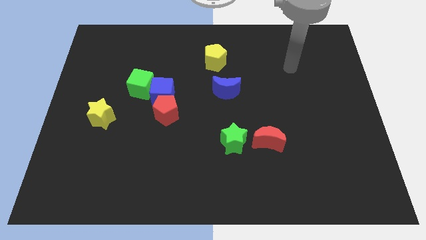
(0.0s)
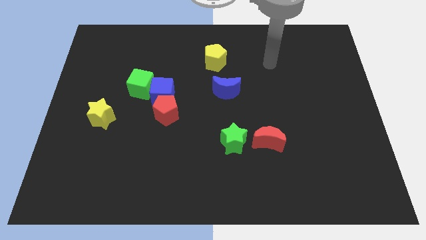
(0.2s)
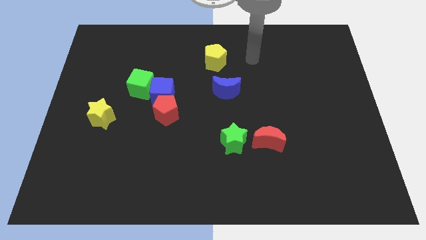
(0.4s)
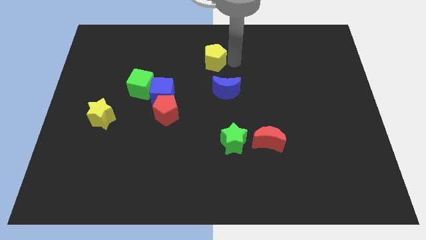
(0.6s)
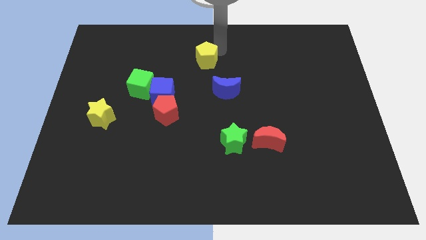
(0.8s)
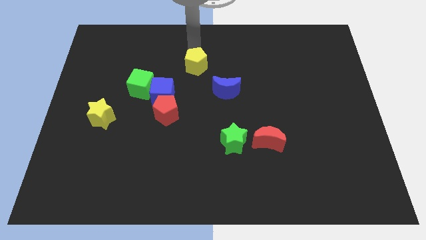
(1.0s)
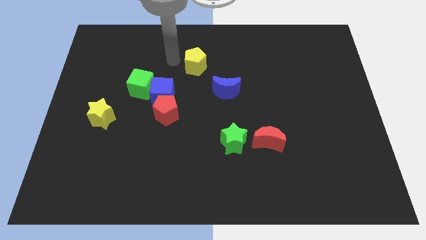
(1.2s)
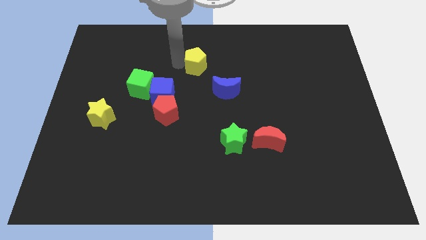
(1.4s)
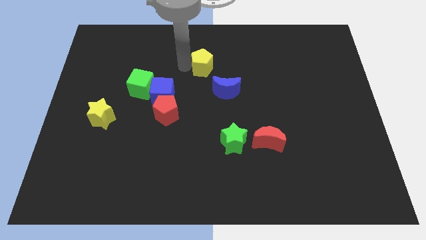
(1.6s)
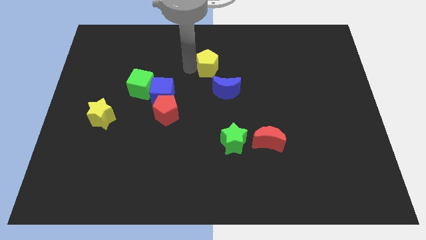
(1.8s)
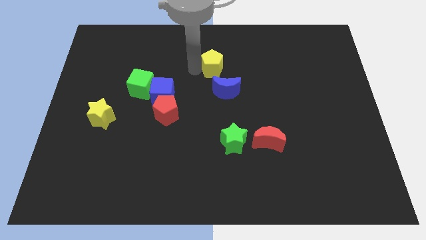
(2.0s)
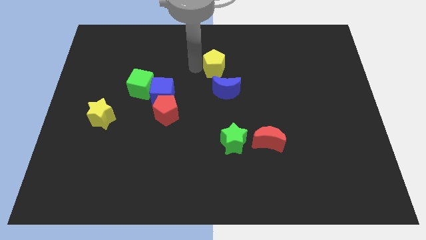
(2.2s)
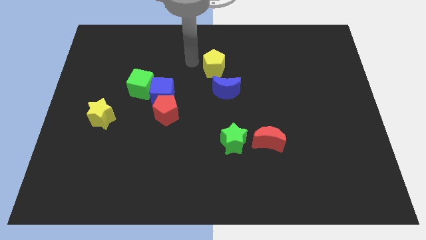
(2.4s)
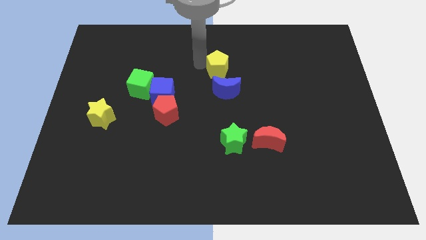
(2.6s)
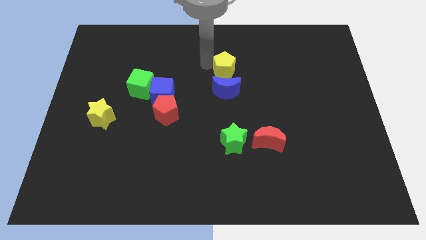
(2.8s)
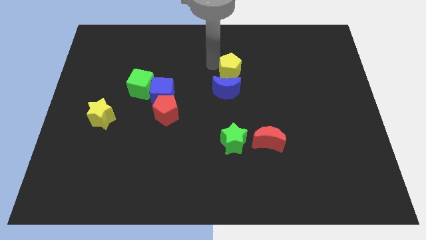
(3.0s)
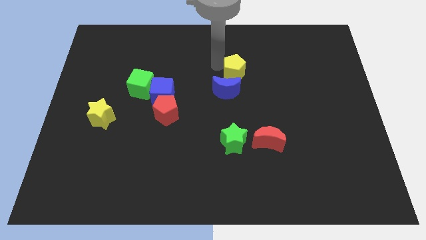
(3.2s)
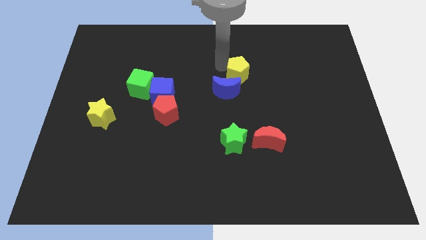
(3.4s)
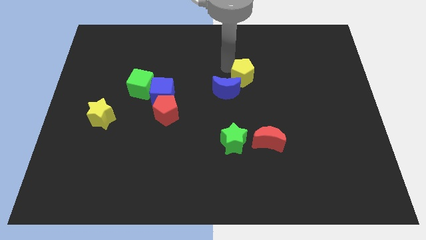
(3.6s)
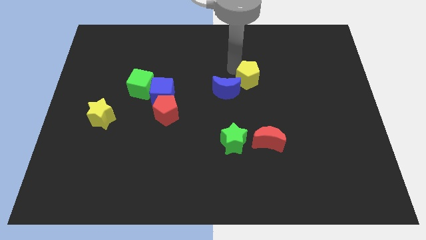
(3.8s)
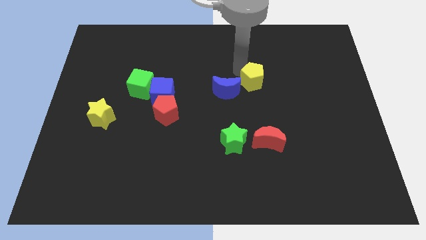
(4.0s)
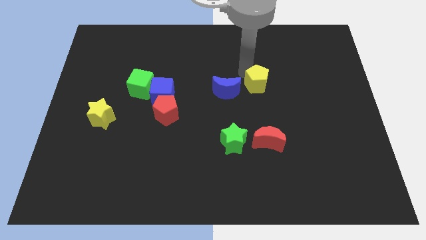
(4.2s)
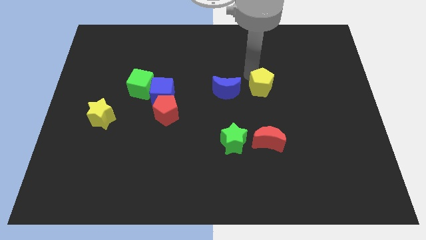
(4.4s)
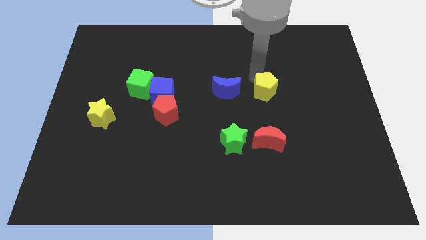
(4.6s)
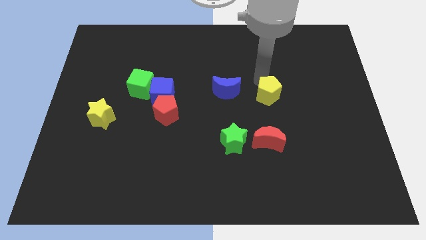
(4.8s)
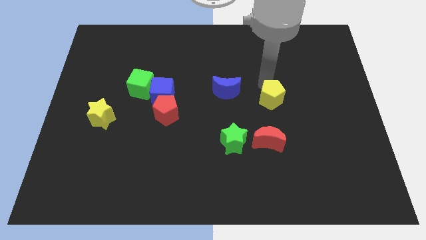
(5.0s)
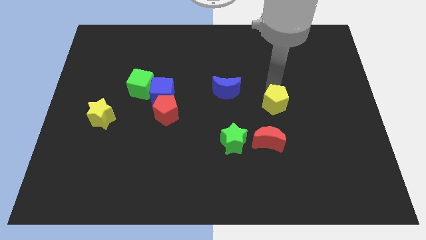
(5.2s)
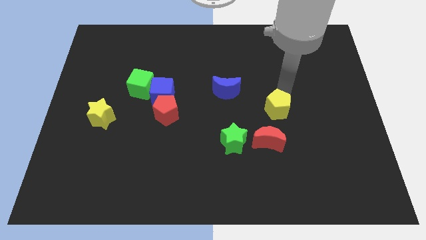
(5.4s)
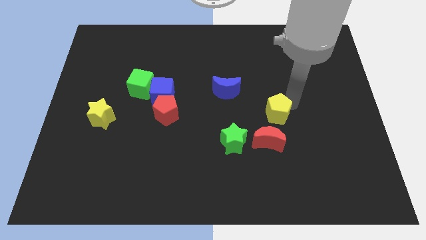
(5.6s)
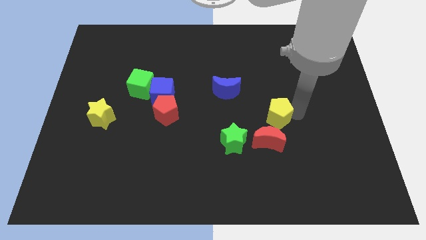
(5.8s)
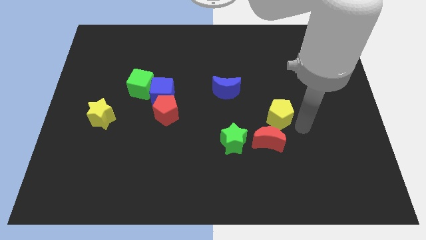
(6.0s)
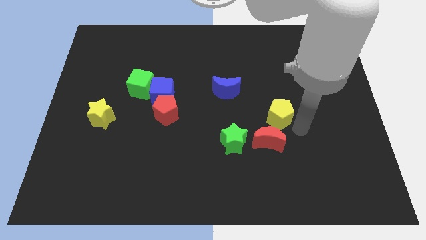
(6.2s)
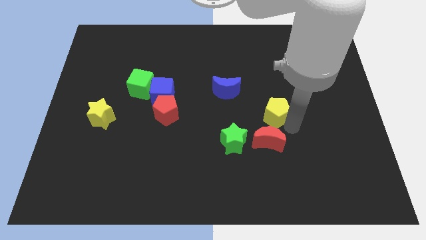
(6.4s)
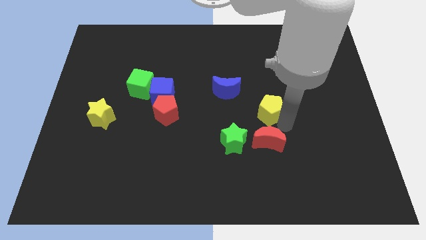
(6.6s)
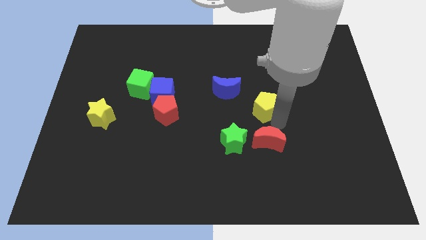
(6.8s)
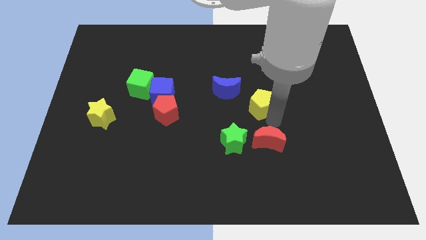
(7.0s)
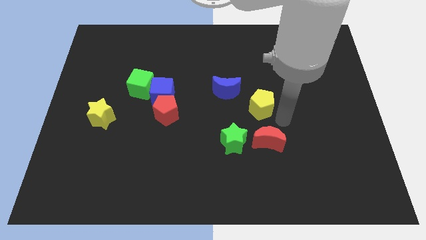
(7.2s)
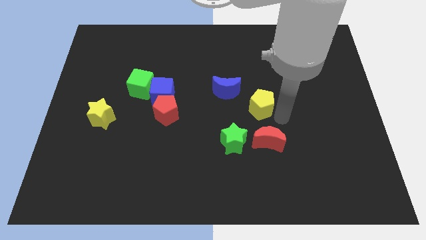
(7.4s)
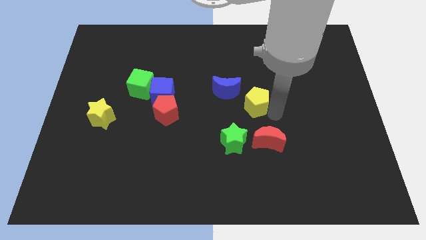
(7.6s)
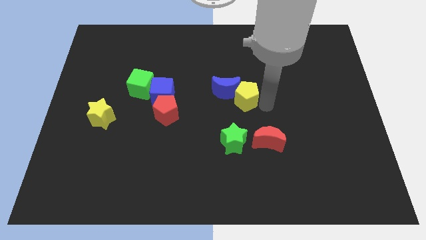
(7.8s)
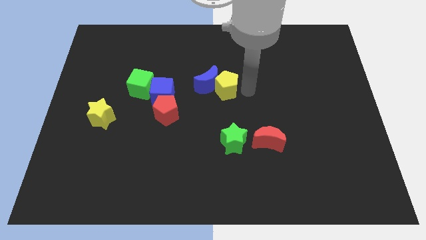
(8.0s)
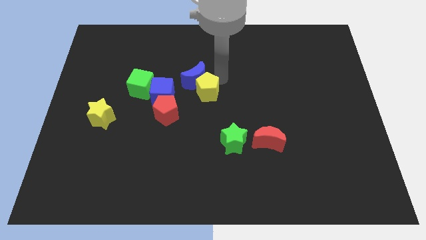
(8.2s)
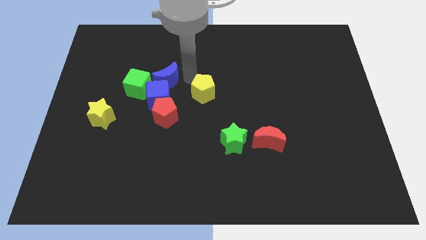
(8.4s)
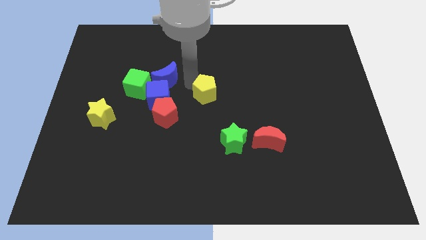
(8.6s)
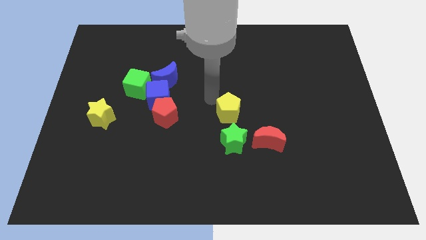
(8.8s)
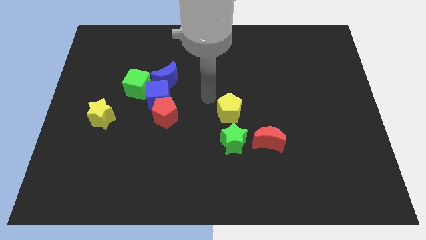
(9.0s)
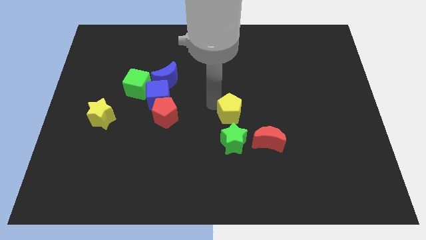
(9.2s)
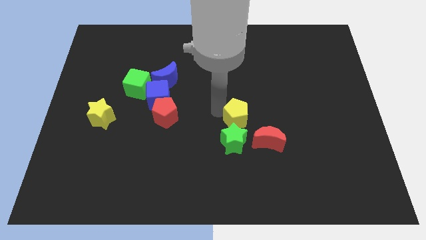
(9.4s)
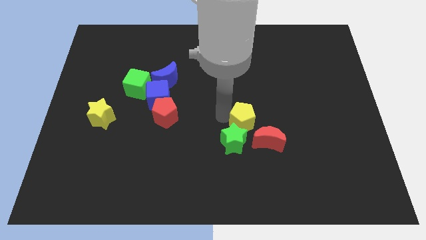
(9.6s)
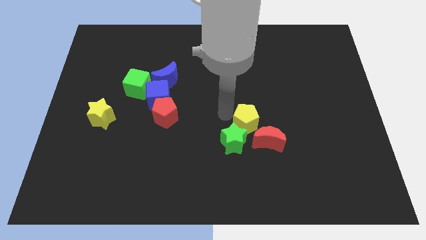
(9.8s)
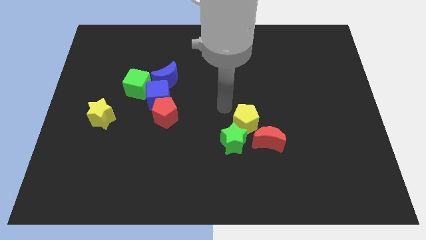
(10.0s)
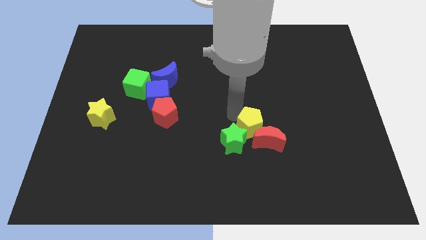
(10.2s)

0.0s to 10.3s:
put the yellow pentagon next to the red moon

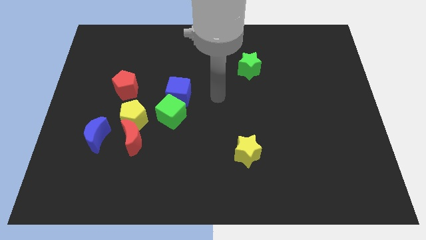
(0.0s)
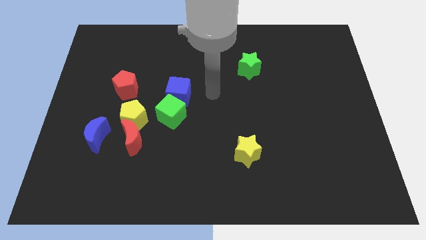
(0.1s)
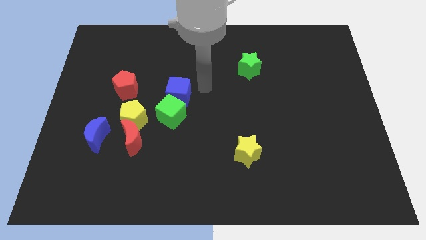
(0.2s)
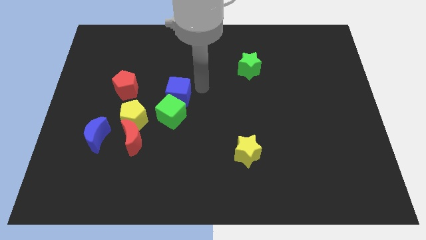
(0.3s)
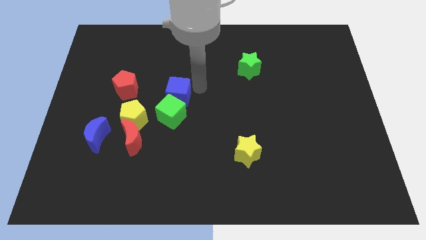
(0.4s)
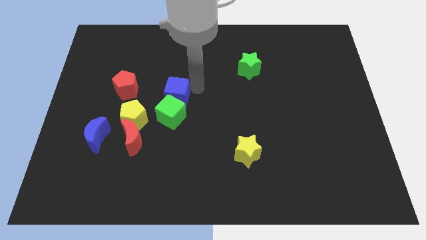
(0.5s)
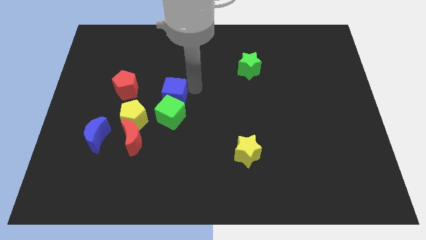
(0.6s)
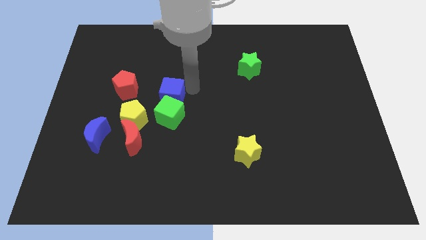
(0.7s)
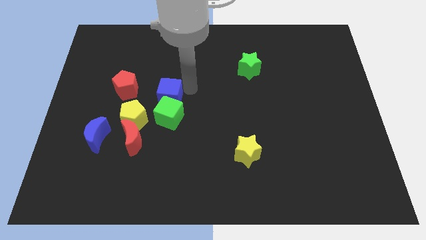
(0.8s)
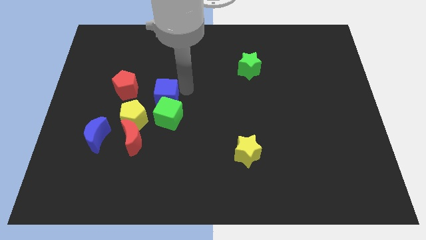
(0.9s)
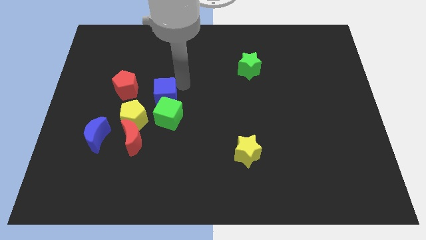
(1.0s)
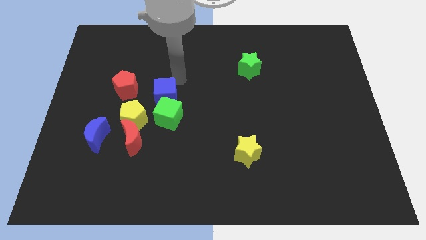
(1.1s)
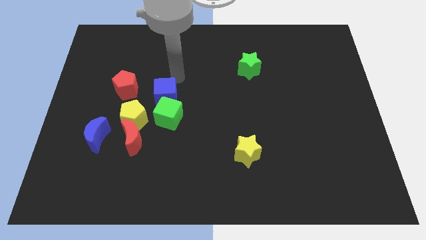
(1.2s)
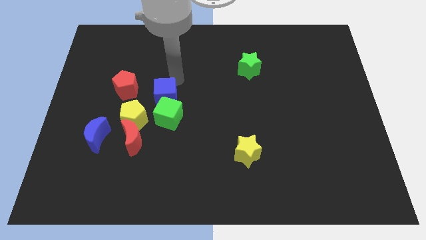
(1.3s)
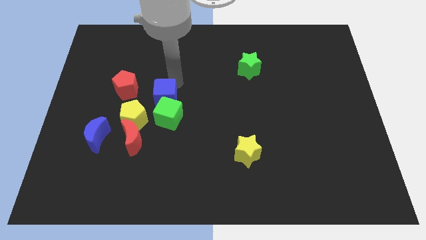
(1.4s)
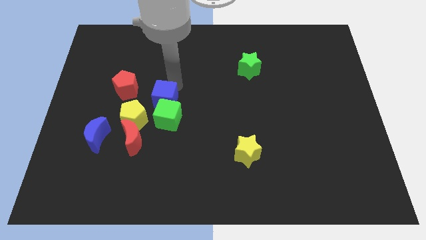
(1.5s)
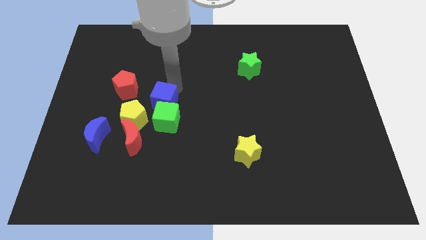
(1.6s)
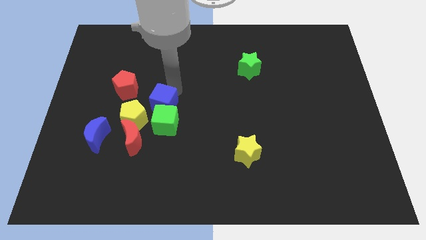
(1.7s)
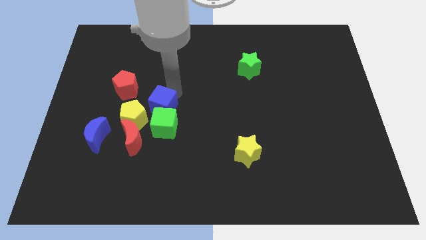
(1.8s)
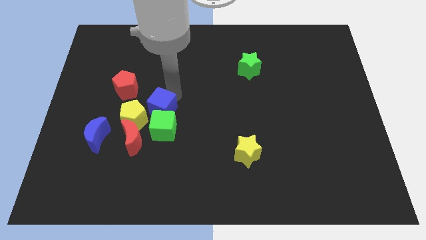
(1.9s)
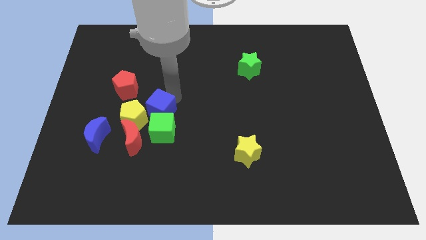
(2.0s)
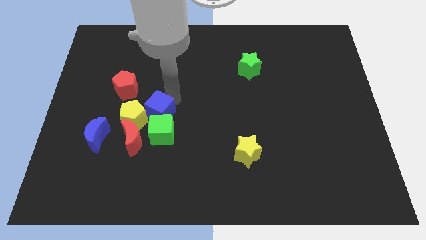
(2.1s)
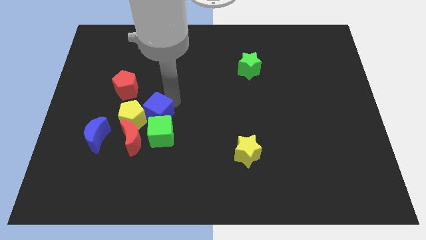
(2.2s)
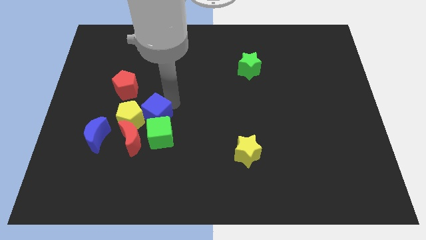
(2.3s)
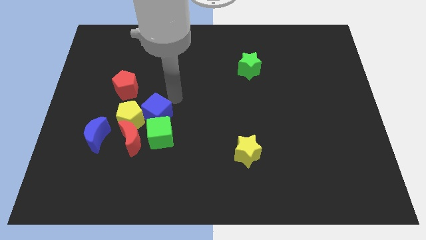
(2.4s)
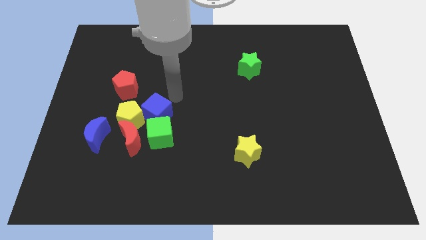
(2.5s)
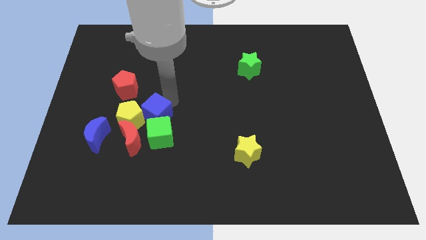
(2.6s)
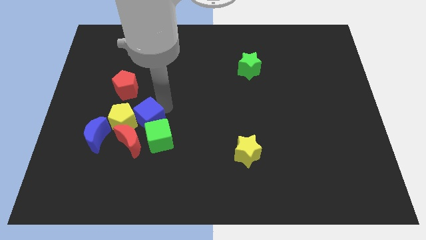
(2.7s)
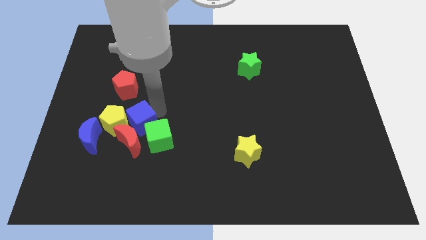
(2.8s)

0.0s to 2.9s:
move the blue cube towards the red moon
